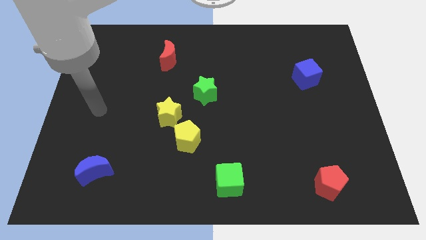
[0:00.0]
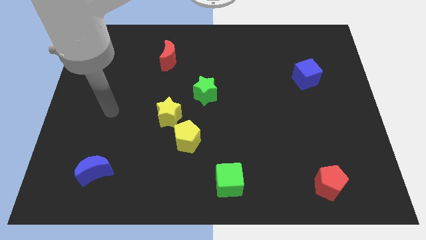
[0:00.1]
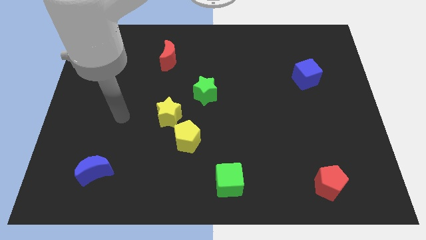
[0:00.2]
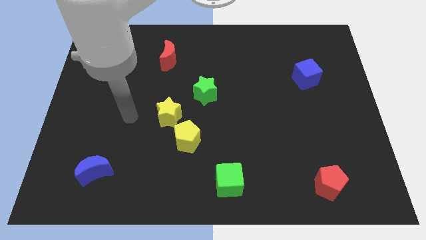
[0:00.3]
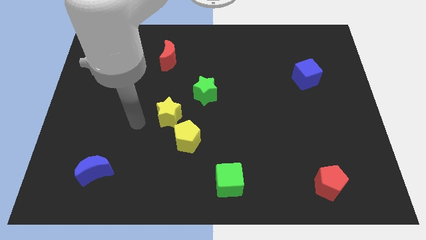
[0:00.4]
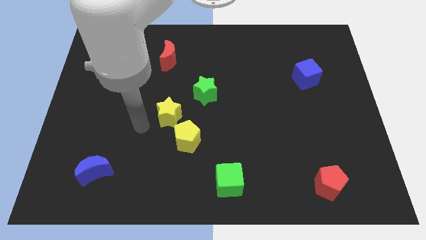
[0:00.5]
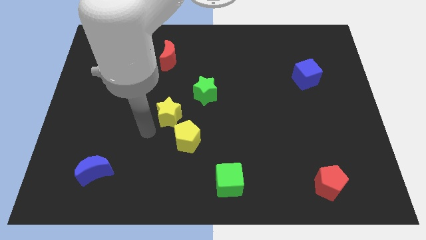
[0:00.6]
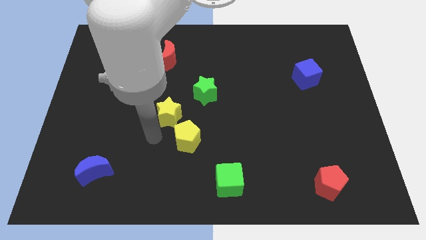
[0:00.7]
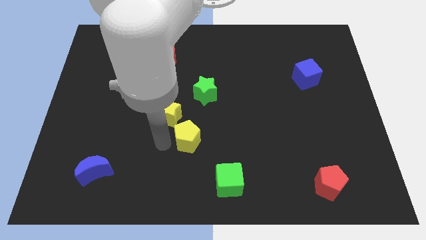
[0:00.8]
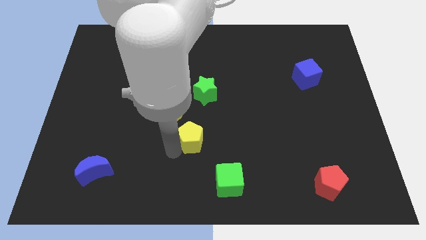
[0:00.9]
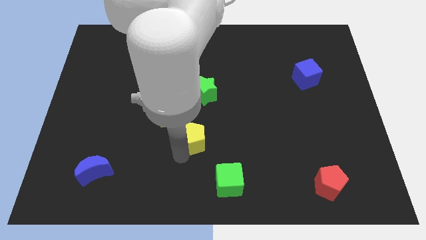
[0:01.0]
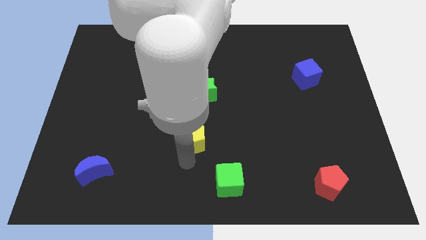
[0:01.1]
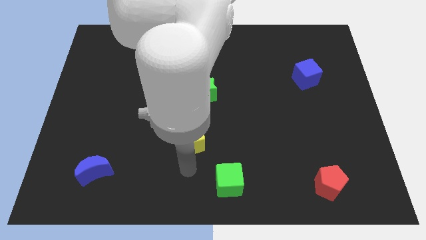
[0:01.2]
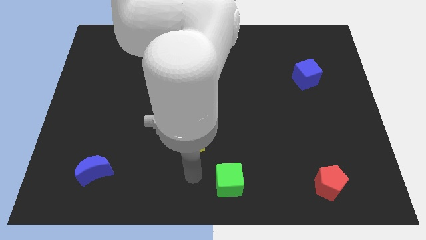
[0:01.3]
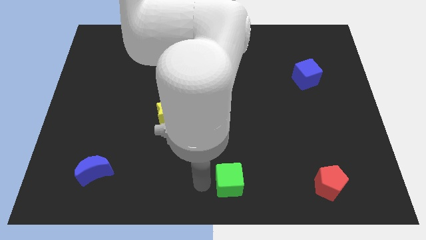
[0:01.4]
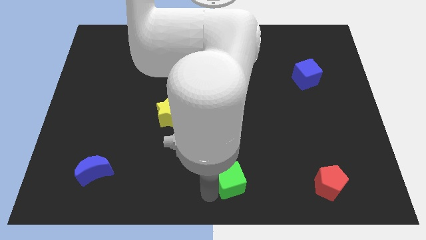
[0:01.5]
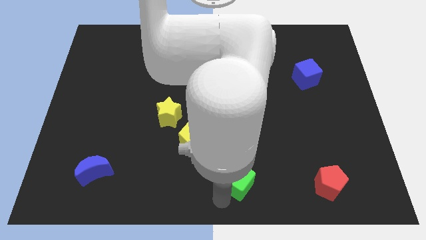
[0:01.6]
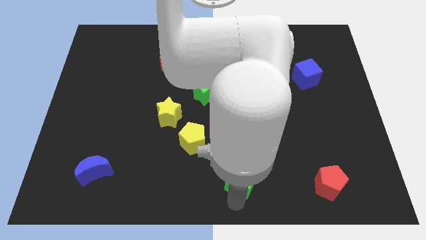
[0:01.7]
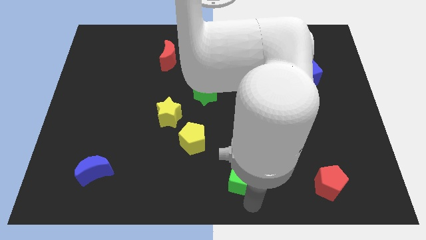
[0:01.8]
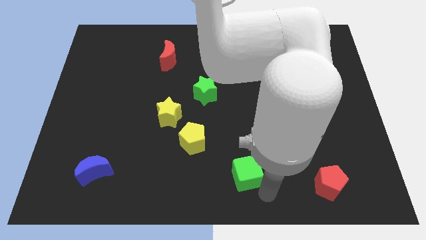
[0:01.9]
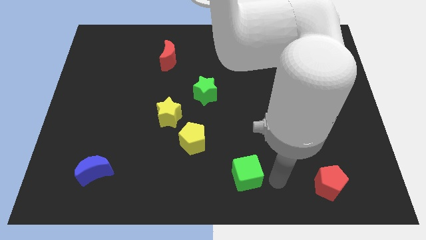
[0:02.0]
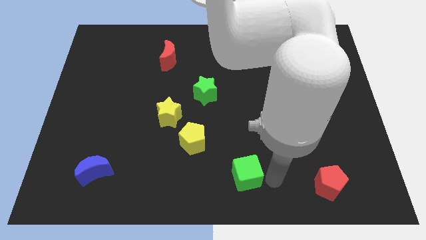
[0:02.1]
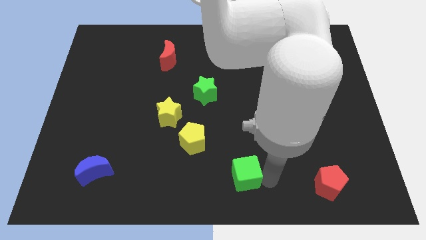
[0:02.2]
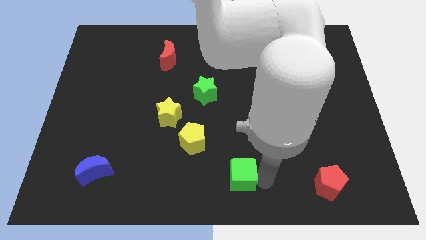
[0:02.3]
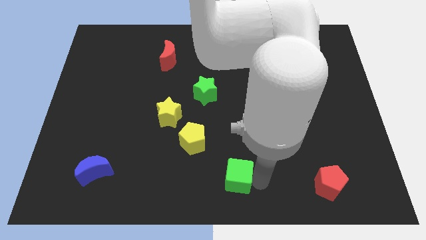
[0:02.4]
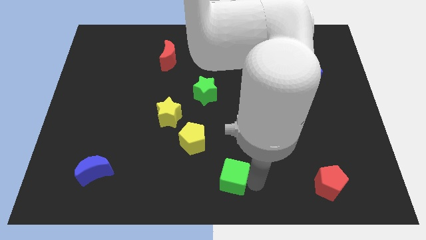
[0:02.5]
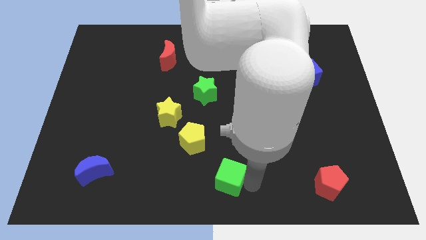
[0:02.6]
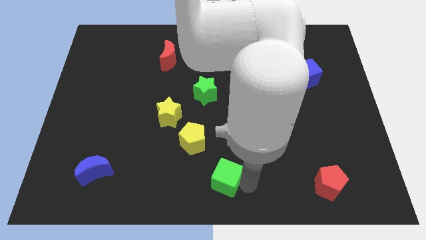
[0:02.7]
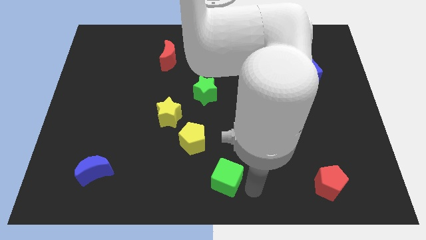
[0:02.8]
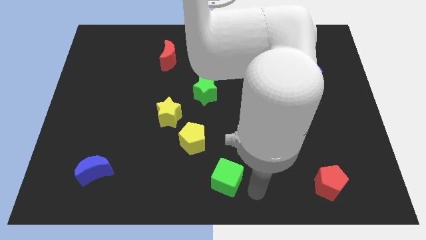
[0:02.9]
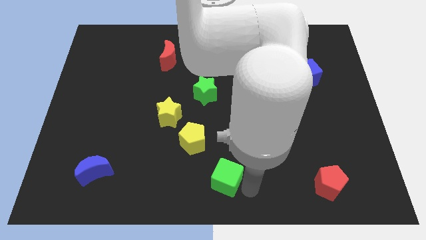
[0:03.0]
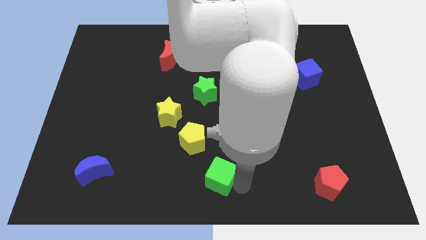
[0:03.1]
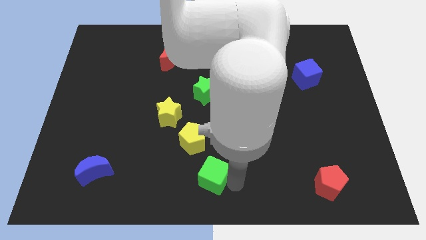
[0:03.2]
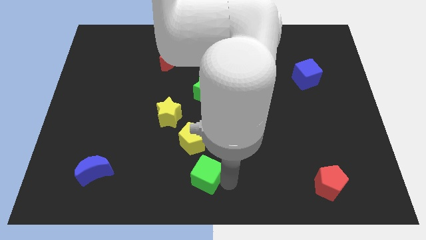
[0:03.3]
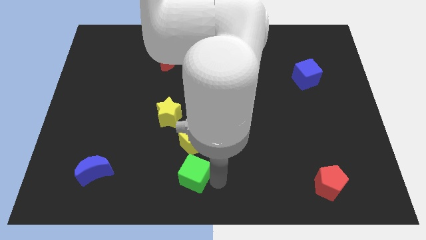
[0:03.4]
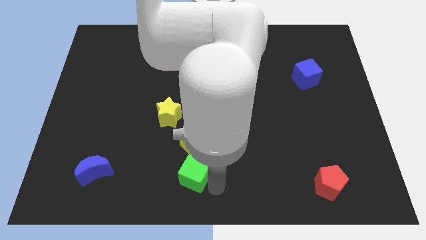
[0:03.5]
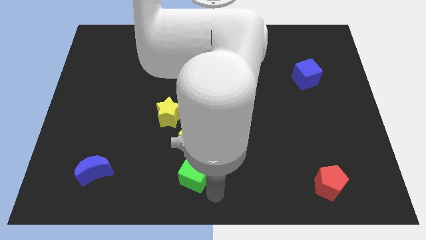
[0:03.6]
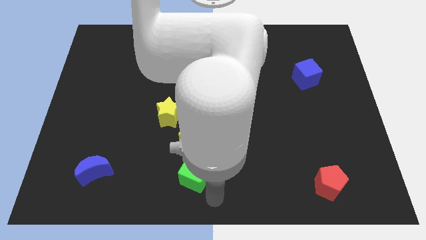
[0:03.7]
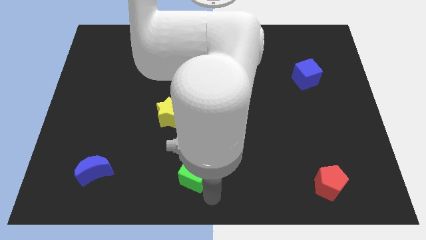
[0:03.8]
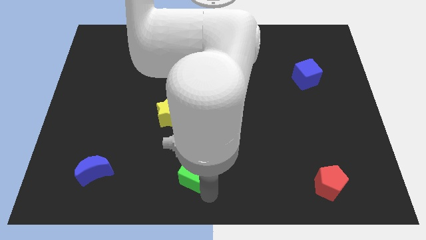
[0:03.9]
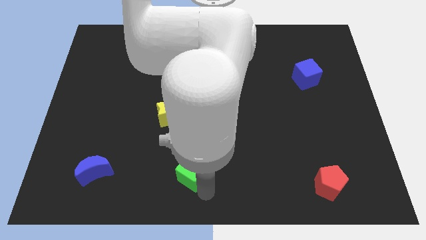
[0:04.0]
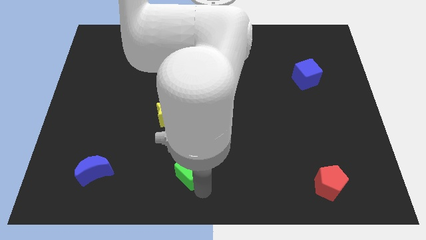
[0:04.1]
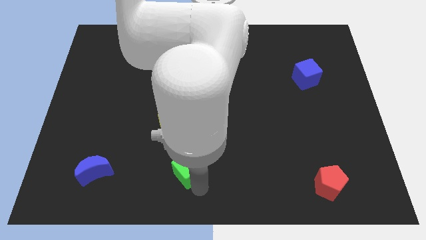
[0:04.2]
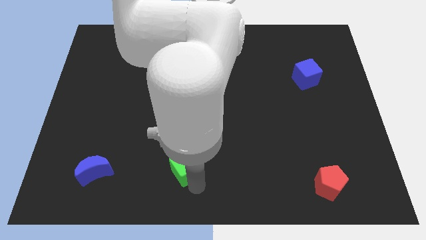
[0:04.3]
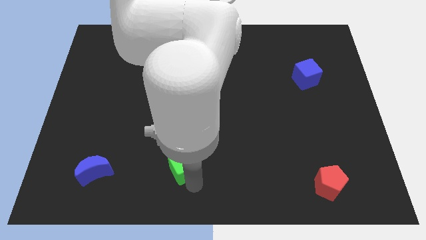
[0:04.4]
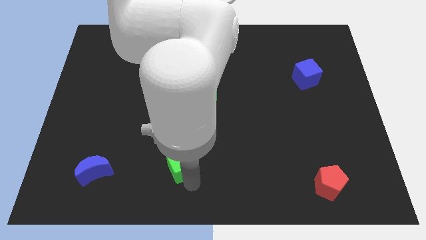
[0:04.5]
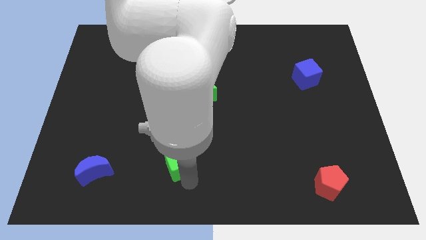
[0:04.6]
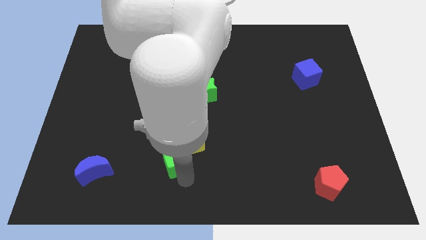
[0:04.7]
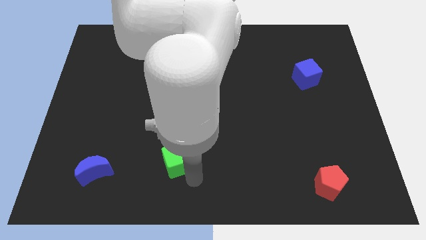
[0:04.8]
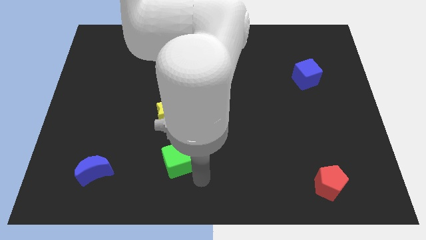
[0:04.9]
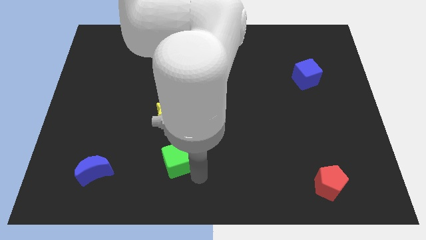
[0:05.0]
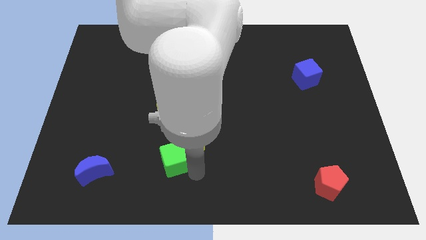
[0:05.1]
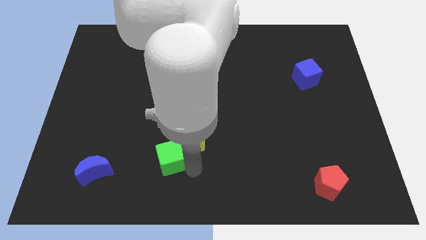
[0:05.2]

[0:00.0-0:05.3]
move the green cube left of the yellow pentagon

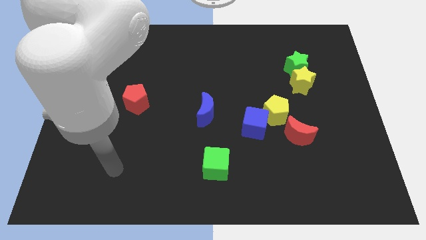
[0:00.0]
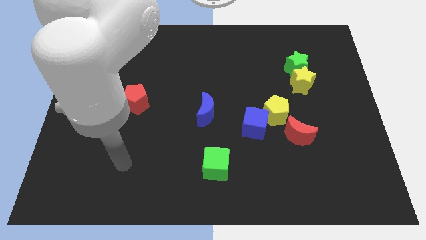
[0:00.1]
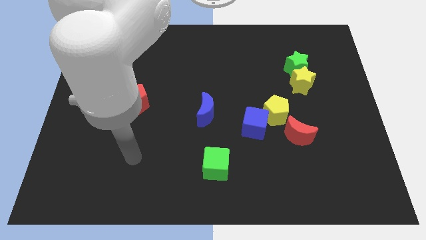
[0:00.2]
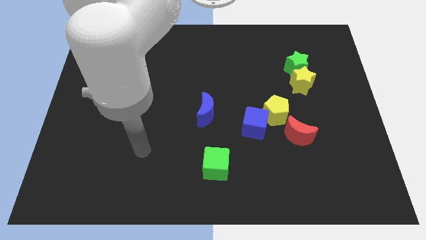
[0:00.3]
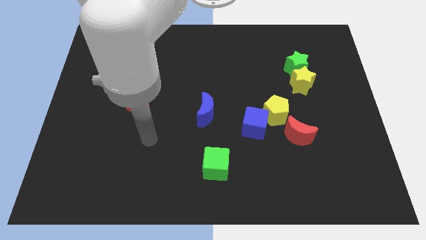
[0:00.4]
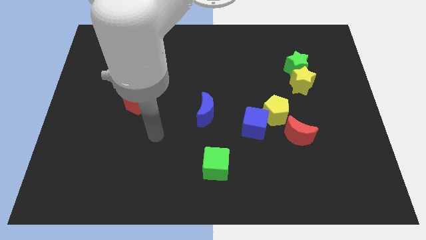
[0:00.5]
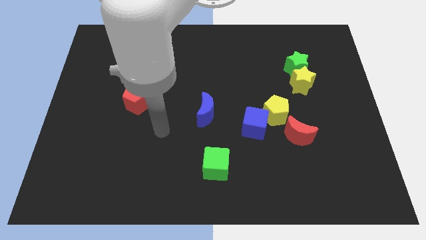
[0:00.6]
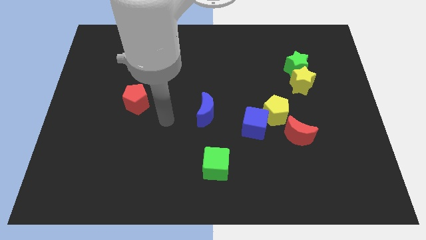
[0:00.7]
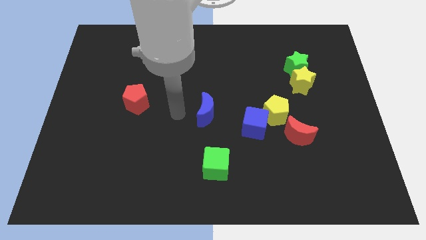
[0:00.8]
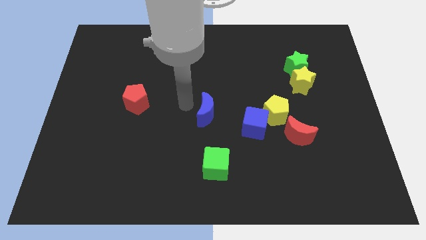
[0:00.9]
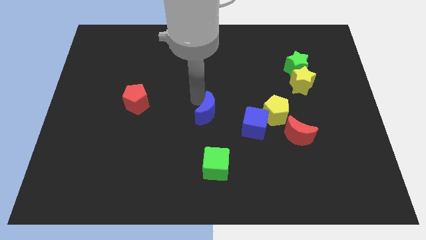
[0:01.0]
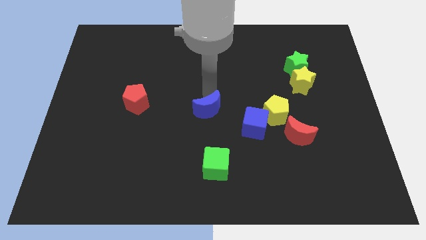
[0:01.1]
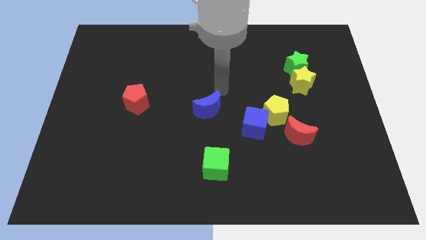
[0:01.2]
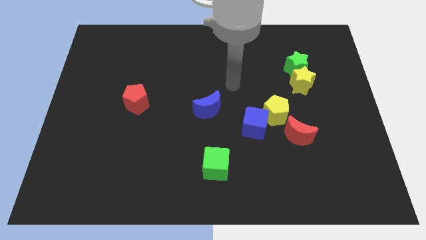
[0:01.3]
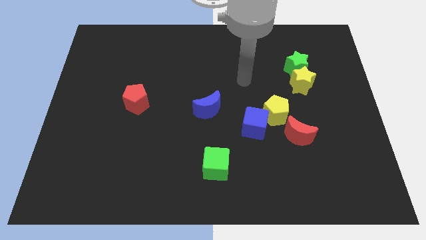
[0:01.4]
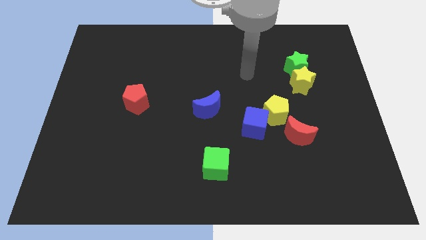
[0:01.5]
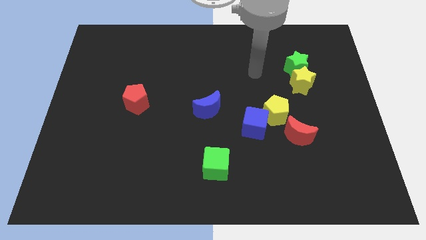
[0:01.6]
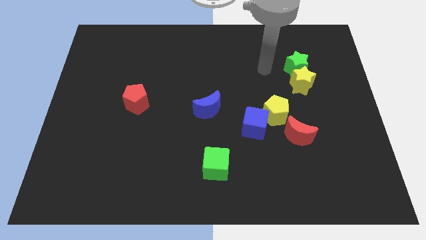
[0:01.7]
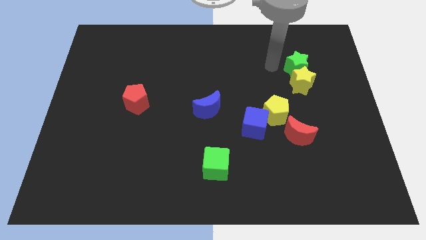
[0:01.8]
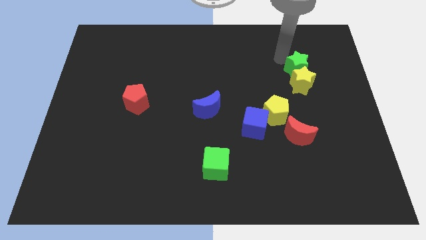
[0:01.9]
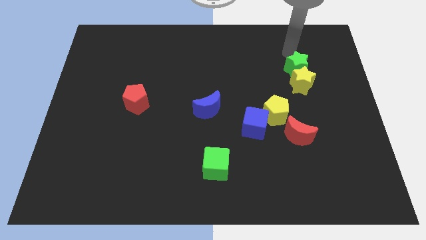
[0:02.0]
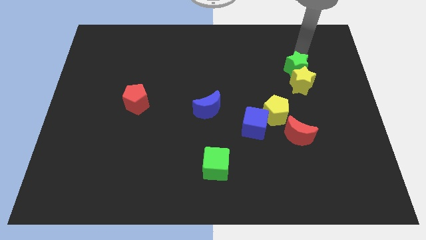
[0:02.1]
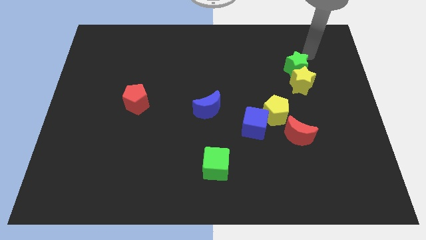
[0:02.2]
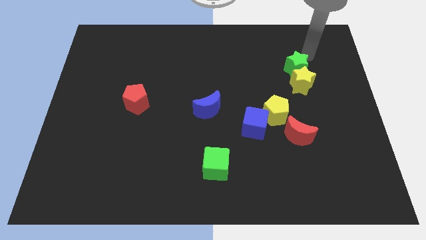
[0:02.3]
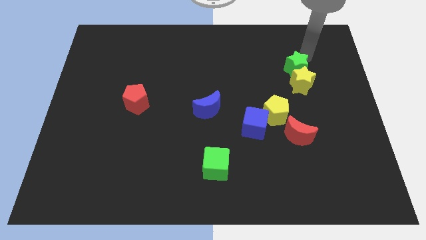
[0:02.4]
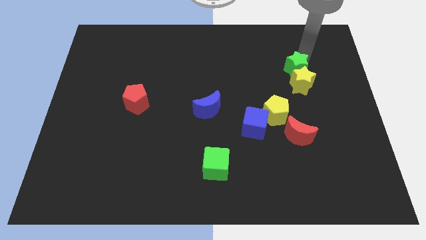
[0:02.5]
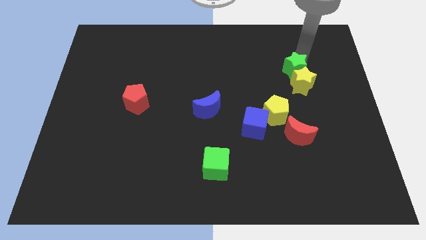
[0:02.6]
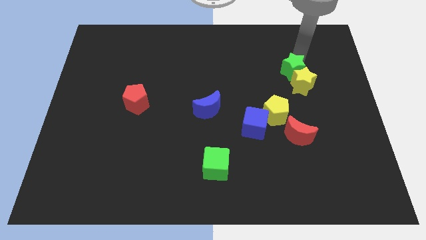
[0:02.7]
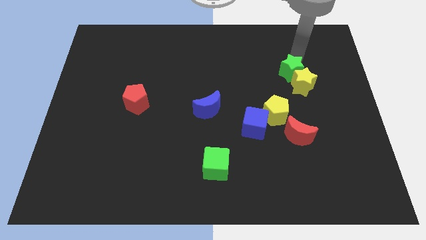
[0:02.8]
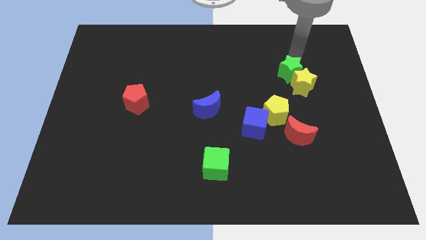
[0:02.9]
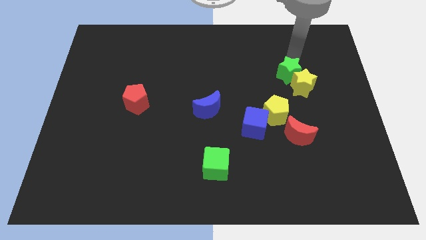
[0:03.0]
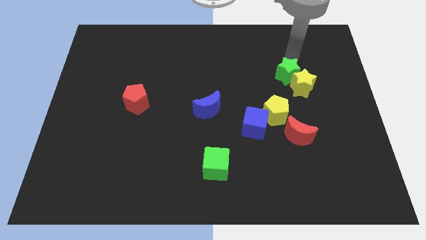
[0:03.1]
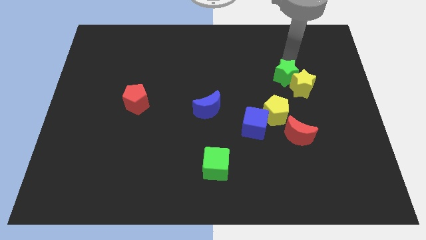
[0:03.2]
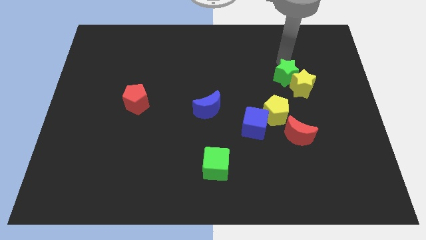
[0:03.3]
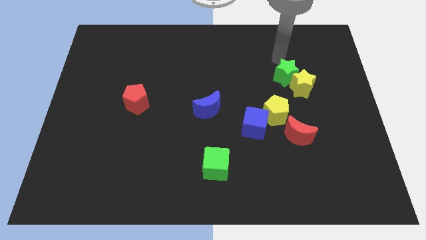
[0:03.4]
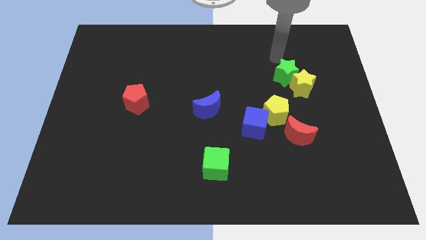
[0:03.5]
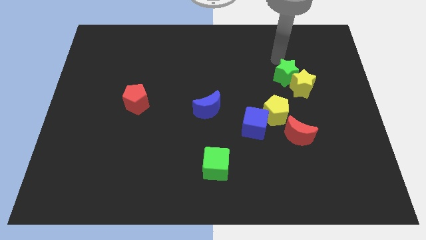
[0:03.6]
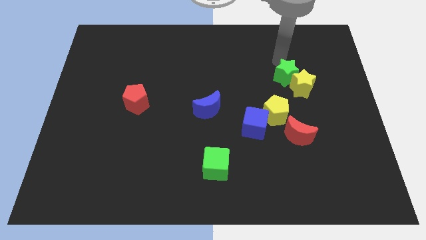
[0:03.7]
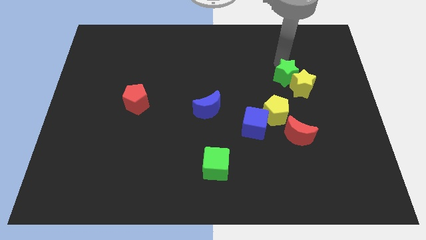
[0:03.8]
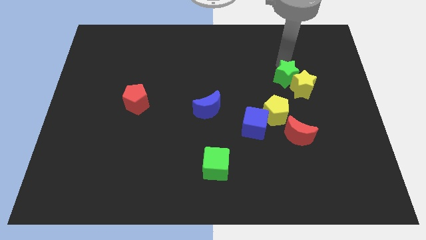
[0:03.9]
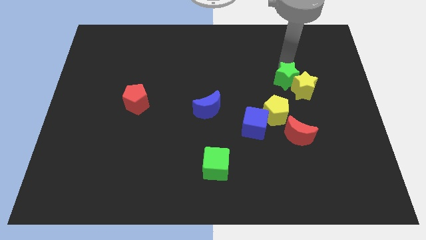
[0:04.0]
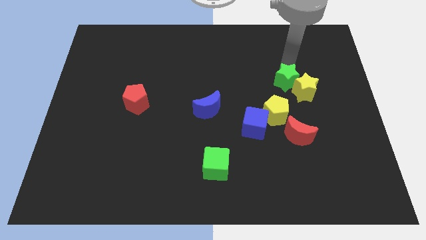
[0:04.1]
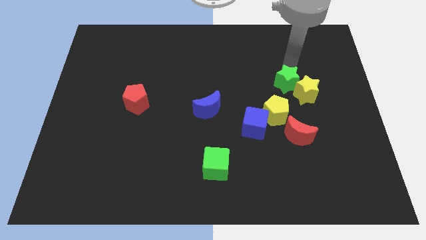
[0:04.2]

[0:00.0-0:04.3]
slide the green star to the top right side of the yellow pentagon
